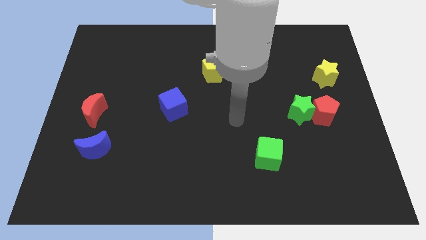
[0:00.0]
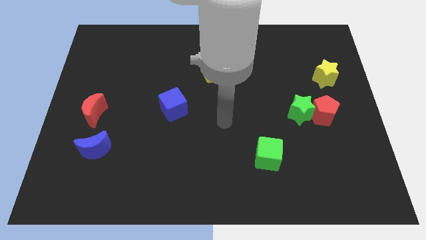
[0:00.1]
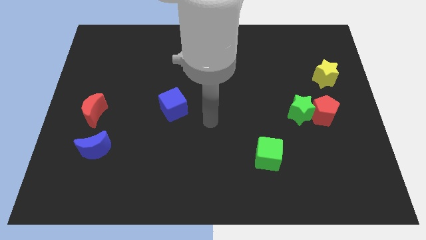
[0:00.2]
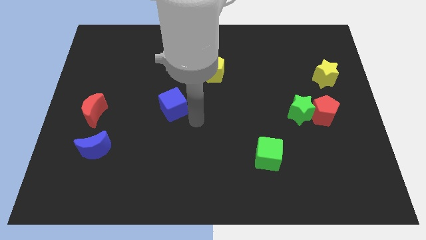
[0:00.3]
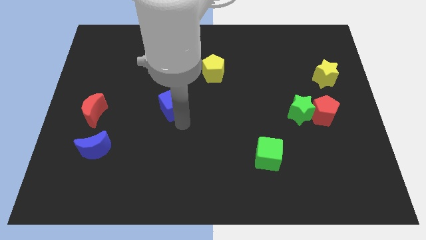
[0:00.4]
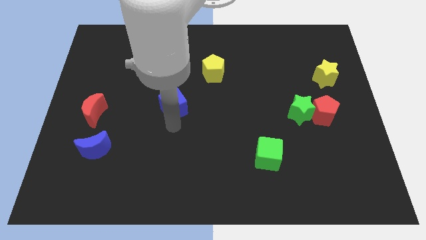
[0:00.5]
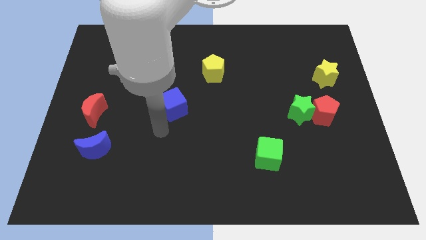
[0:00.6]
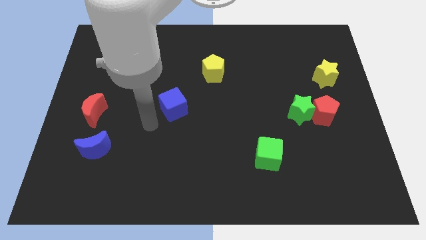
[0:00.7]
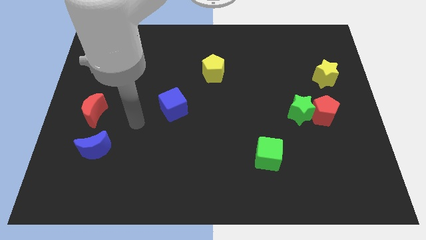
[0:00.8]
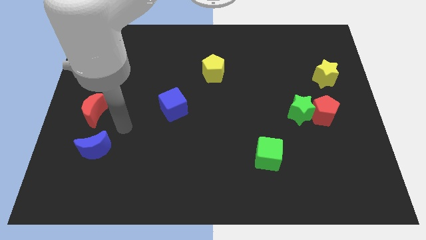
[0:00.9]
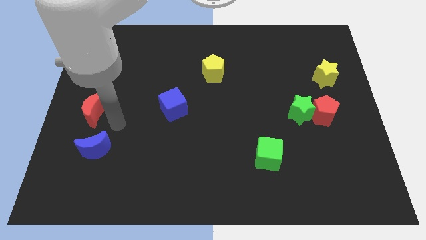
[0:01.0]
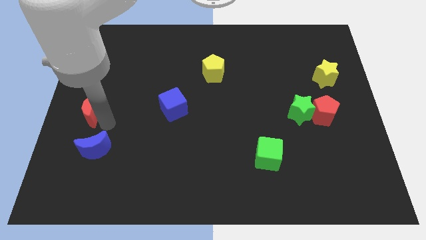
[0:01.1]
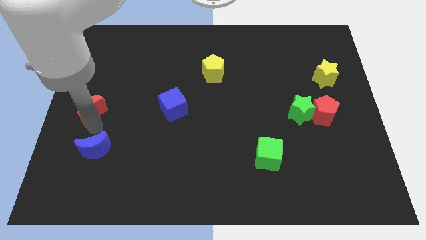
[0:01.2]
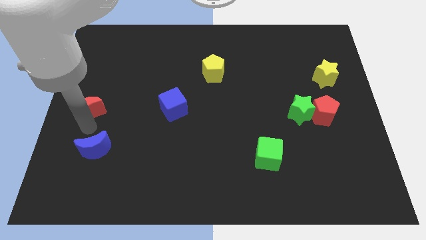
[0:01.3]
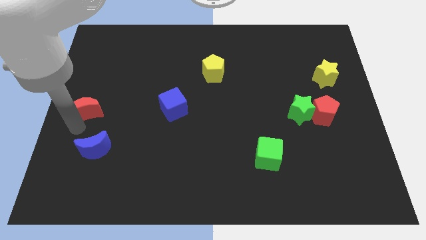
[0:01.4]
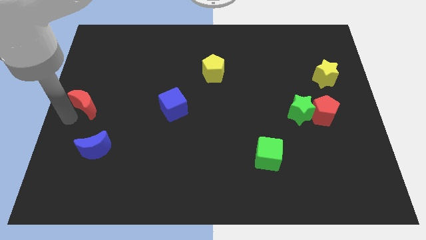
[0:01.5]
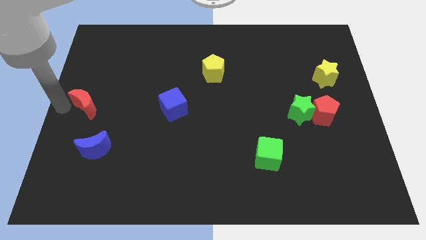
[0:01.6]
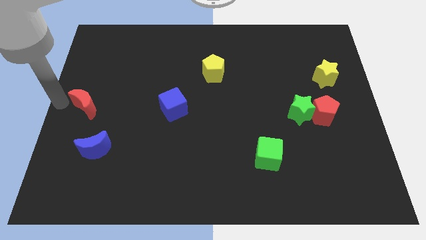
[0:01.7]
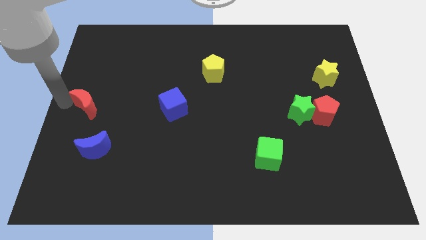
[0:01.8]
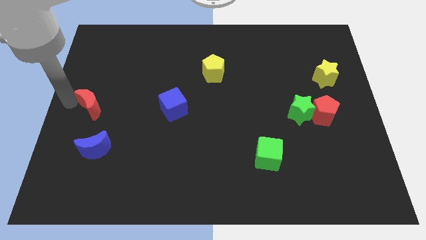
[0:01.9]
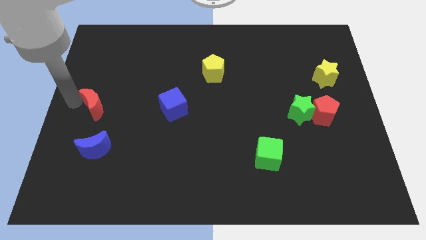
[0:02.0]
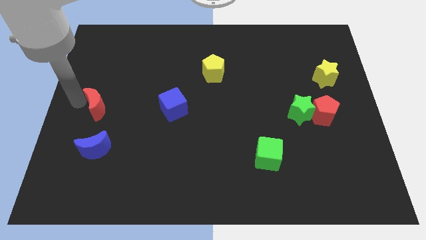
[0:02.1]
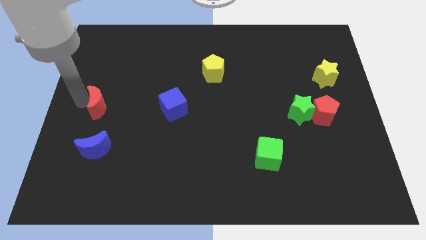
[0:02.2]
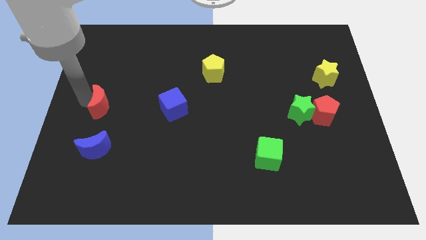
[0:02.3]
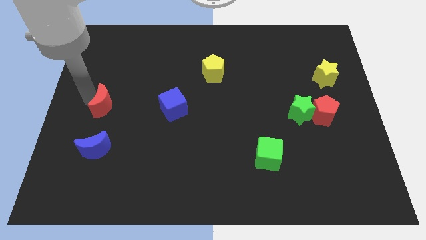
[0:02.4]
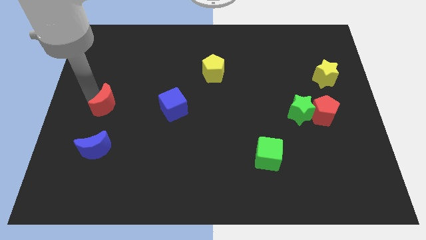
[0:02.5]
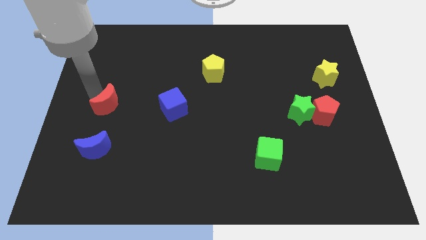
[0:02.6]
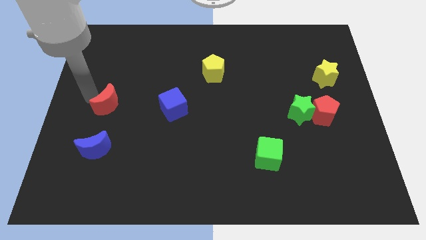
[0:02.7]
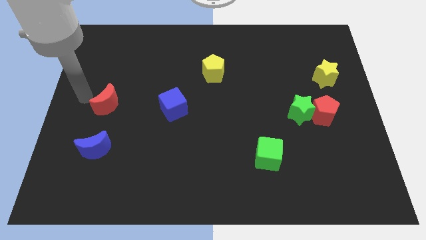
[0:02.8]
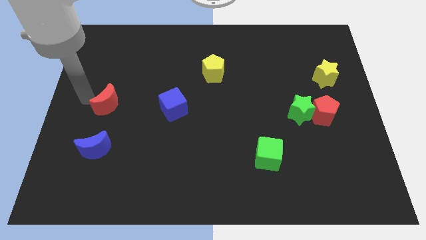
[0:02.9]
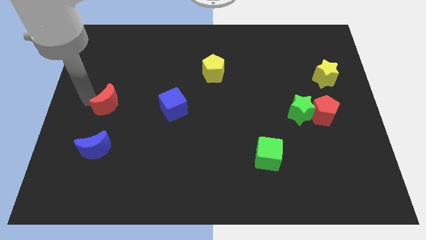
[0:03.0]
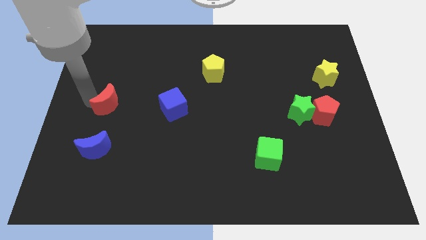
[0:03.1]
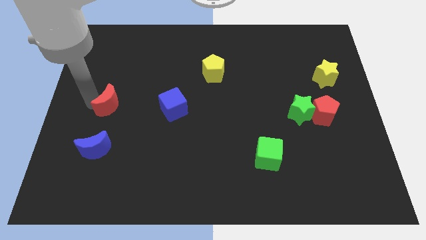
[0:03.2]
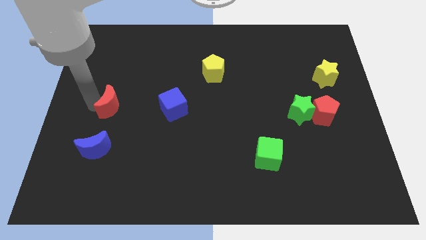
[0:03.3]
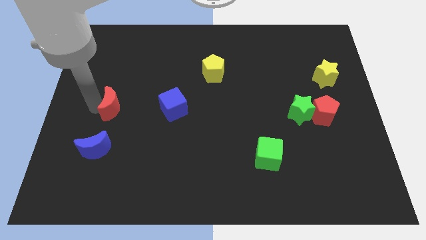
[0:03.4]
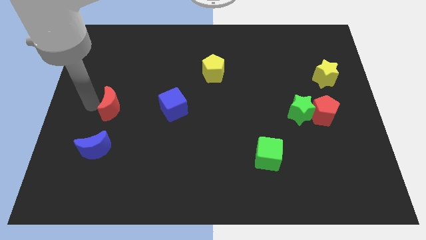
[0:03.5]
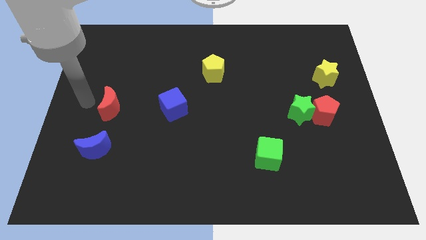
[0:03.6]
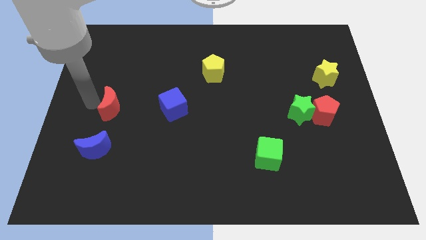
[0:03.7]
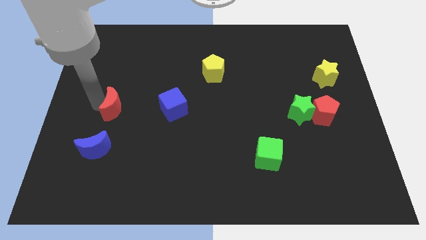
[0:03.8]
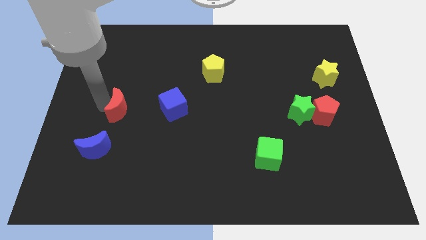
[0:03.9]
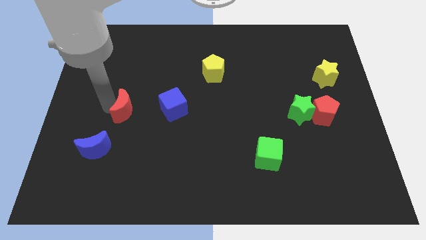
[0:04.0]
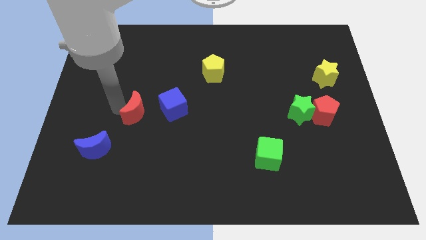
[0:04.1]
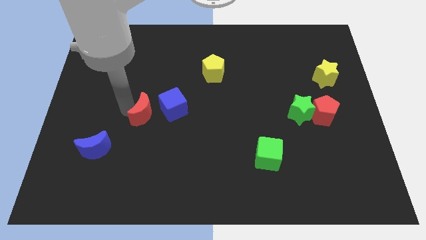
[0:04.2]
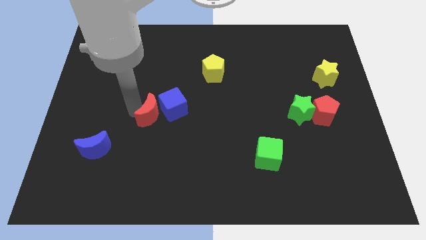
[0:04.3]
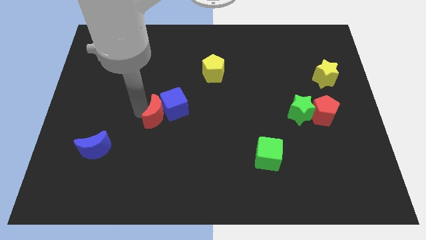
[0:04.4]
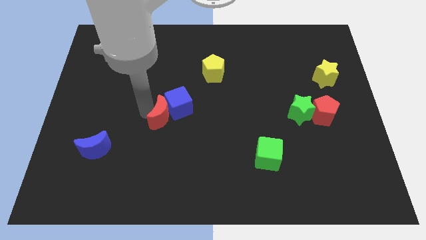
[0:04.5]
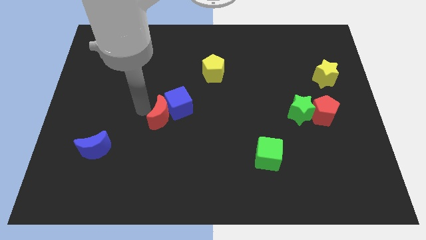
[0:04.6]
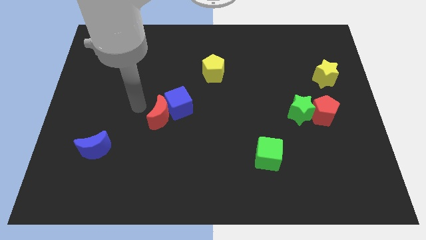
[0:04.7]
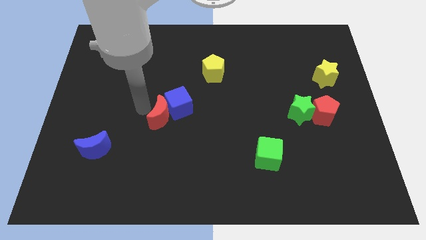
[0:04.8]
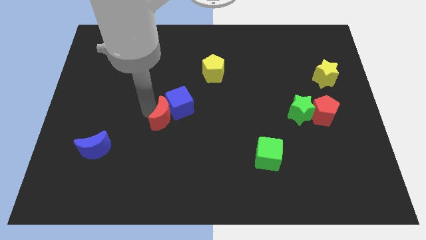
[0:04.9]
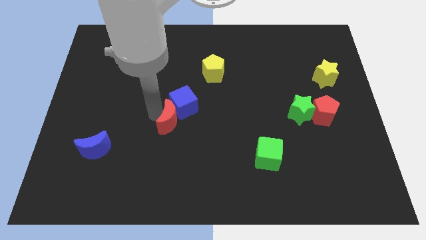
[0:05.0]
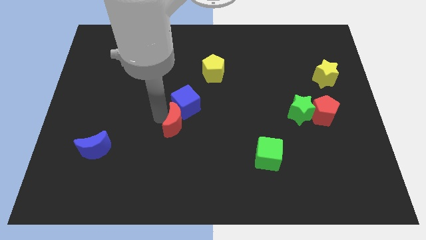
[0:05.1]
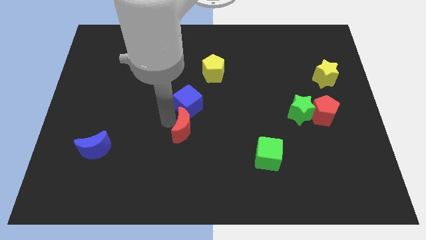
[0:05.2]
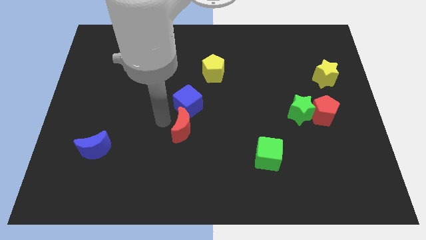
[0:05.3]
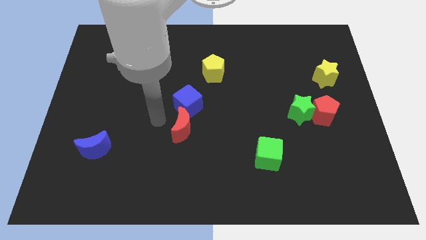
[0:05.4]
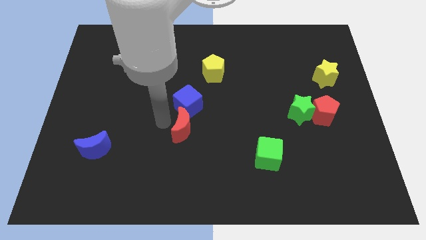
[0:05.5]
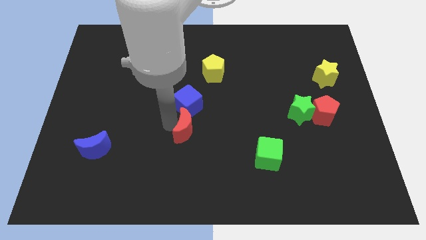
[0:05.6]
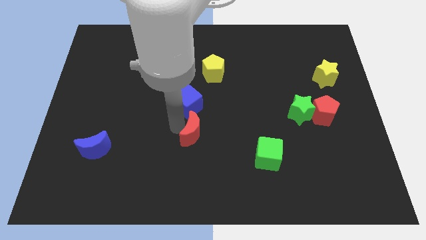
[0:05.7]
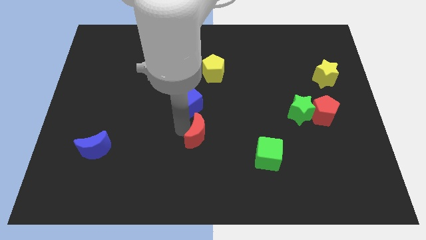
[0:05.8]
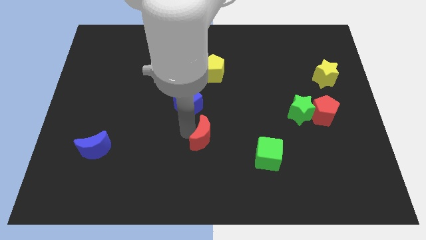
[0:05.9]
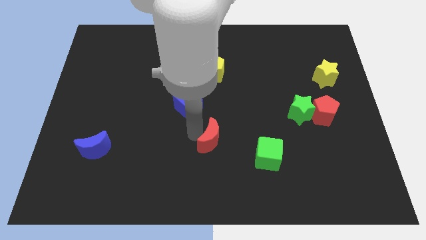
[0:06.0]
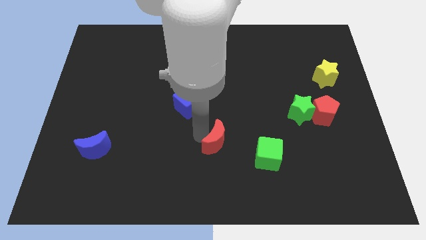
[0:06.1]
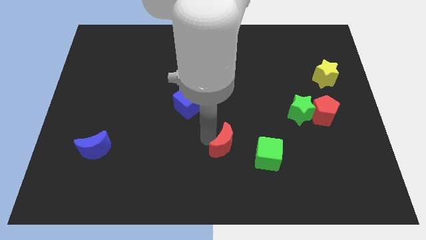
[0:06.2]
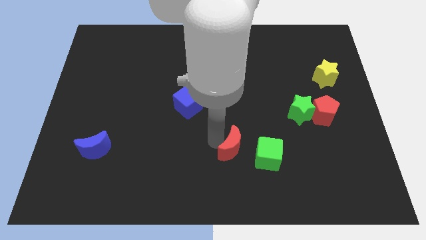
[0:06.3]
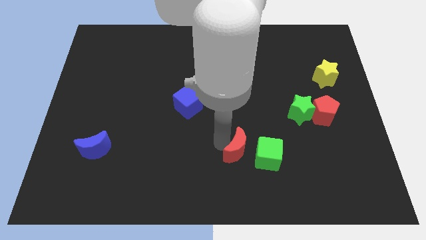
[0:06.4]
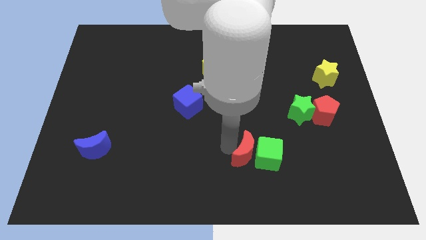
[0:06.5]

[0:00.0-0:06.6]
slide the red moon to the green cube
